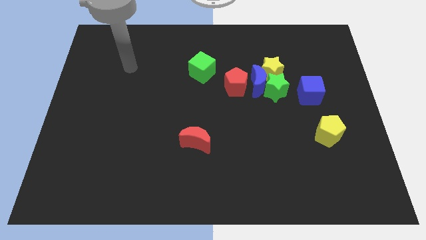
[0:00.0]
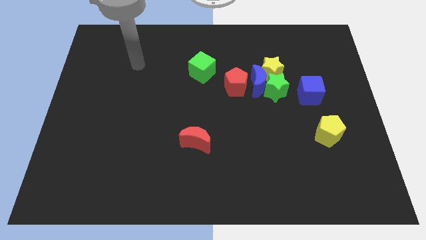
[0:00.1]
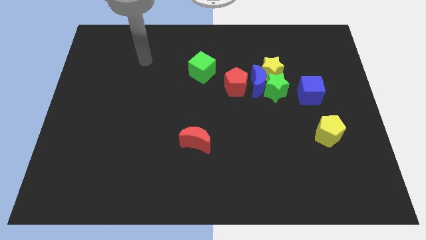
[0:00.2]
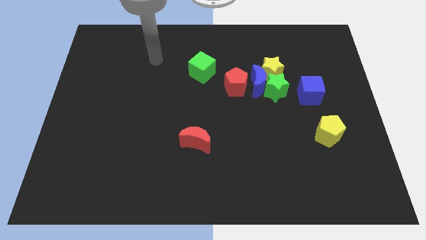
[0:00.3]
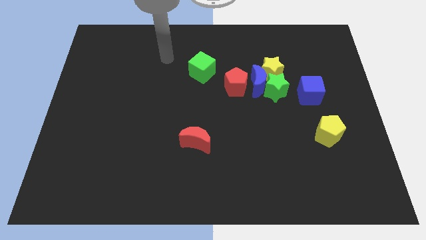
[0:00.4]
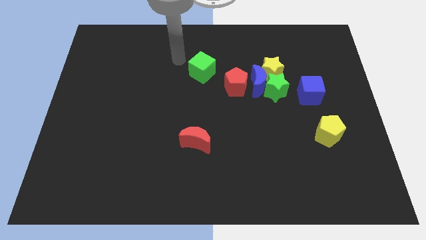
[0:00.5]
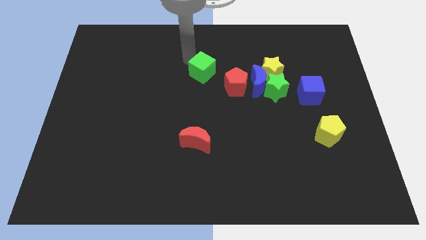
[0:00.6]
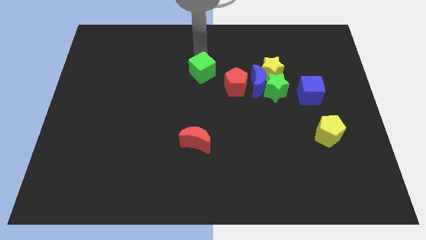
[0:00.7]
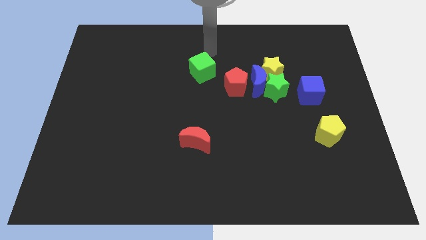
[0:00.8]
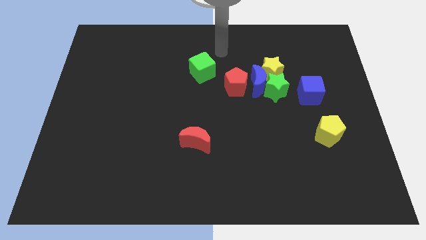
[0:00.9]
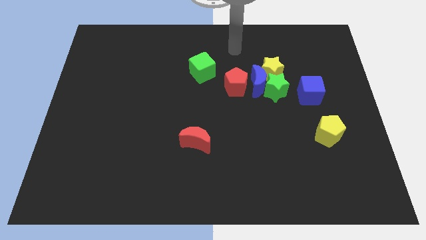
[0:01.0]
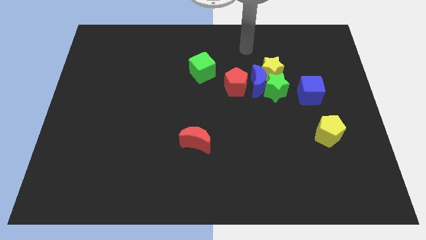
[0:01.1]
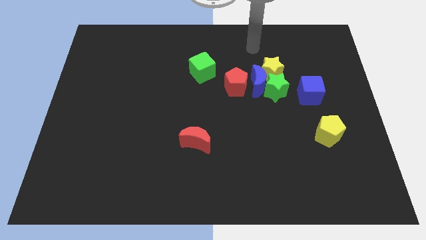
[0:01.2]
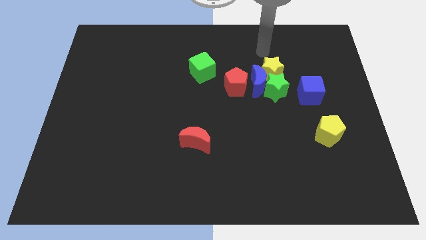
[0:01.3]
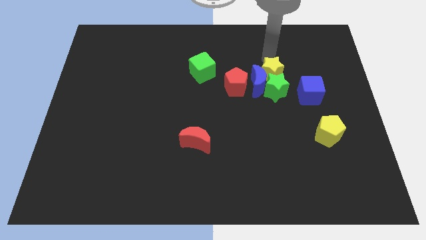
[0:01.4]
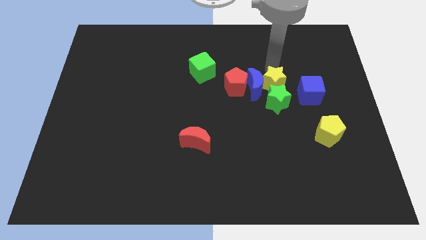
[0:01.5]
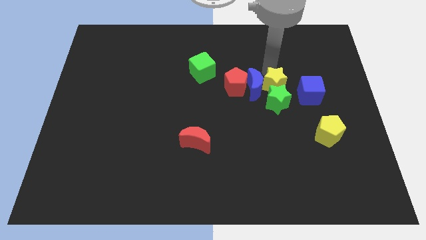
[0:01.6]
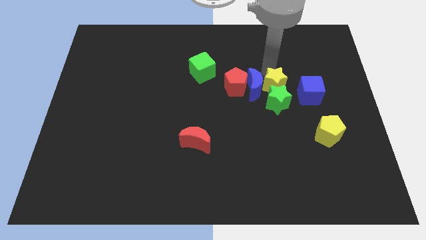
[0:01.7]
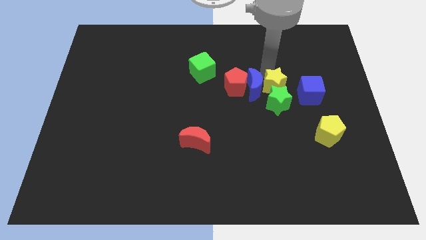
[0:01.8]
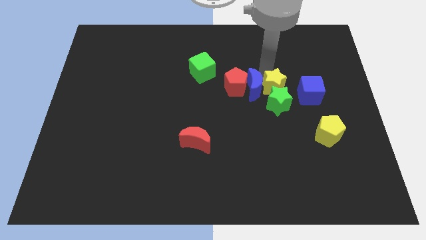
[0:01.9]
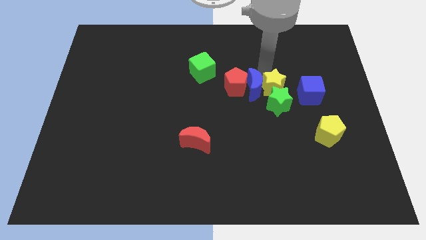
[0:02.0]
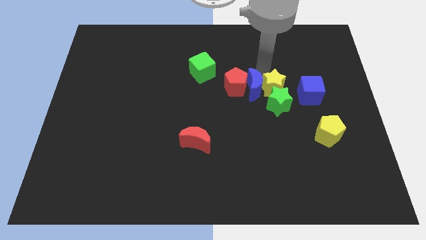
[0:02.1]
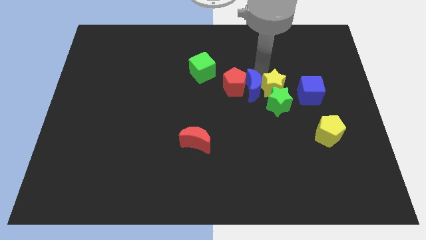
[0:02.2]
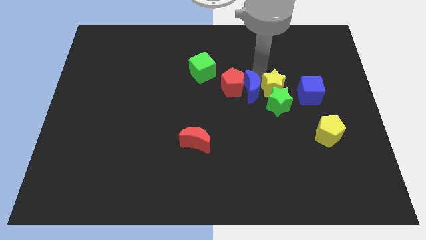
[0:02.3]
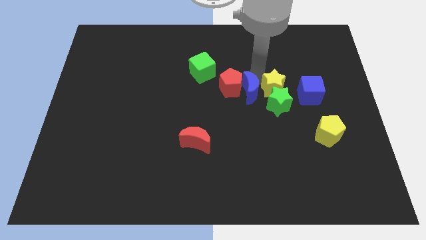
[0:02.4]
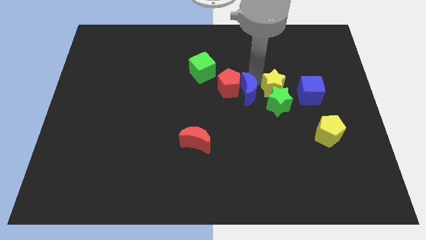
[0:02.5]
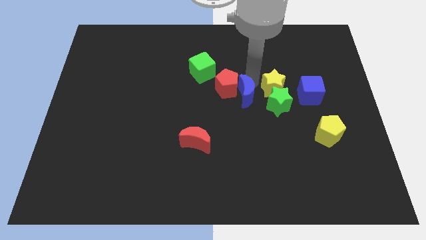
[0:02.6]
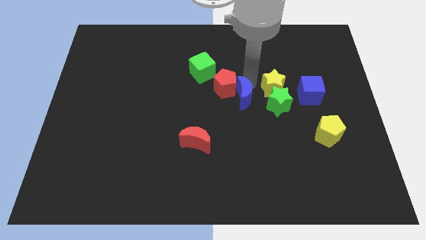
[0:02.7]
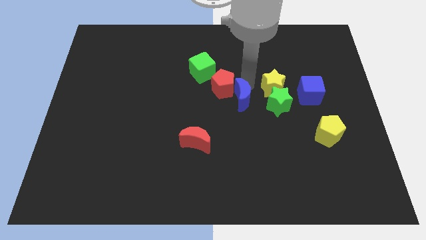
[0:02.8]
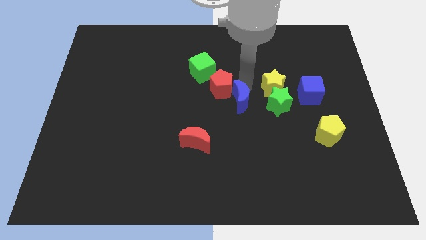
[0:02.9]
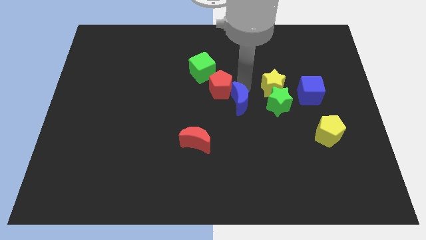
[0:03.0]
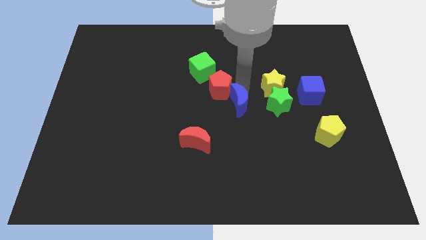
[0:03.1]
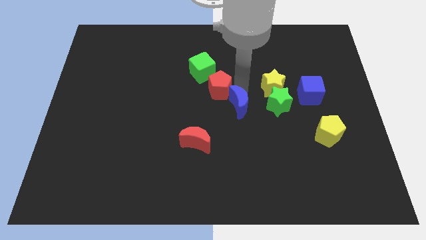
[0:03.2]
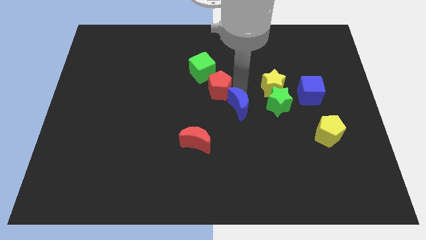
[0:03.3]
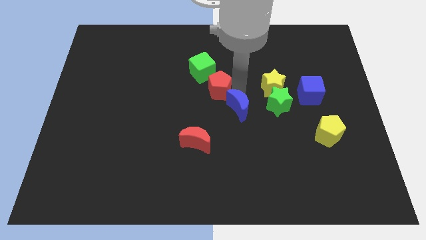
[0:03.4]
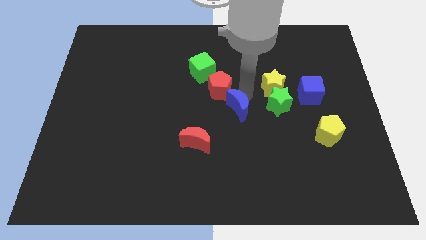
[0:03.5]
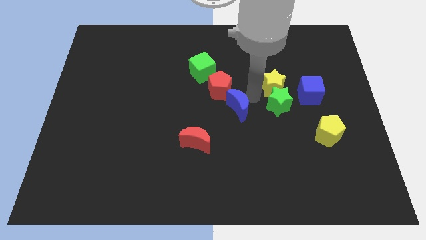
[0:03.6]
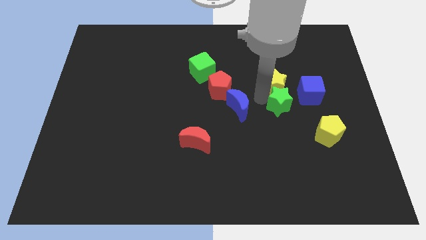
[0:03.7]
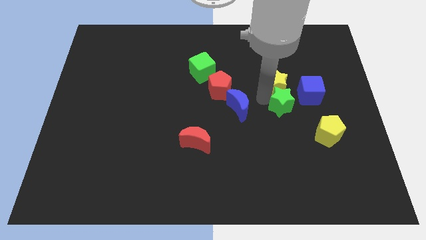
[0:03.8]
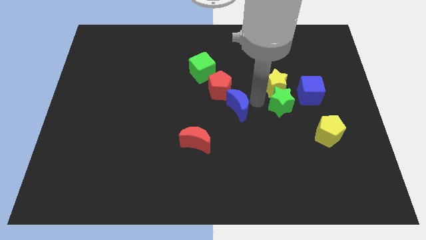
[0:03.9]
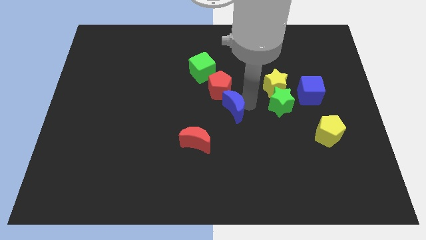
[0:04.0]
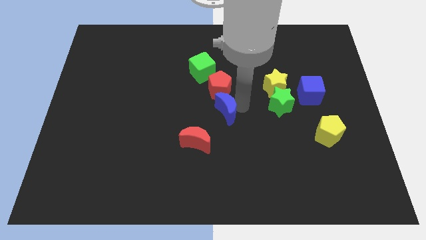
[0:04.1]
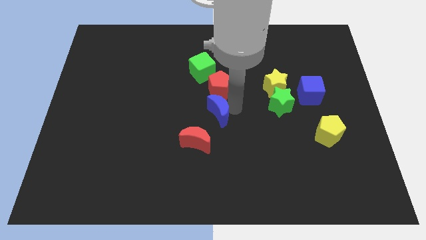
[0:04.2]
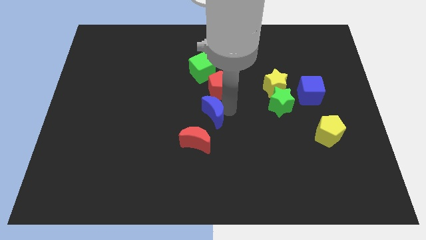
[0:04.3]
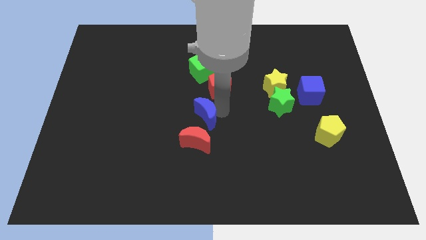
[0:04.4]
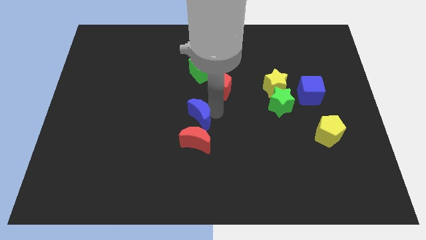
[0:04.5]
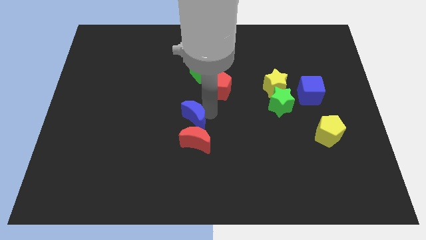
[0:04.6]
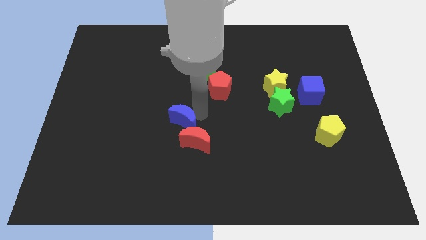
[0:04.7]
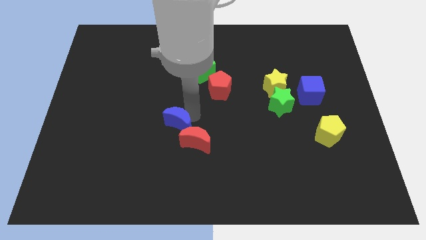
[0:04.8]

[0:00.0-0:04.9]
move the blue moon down and to the left

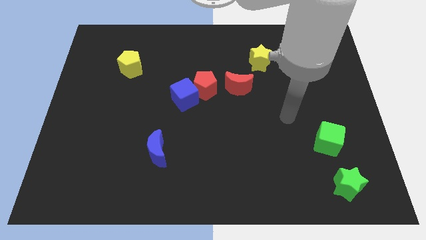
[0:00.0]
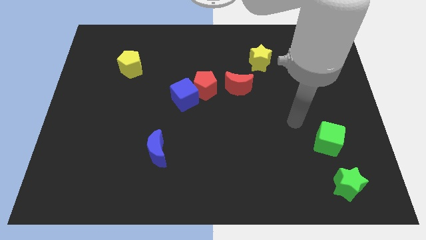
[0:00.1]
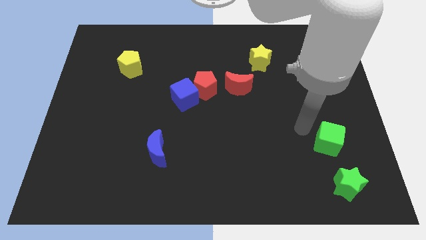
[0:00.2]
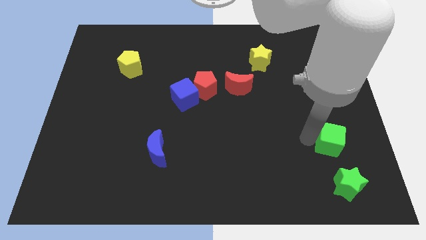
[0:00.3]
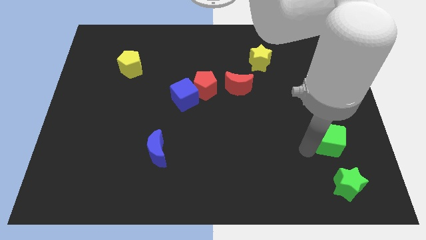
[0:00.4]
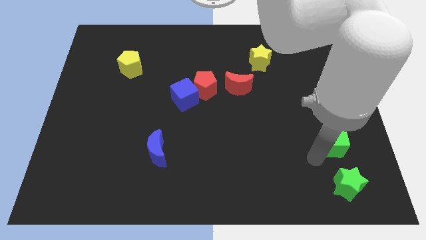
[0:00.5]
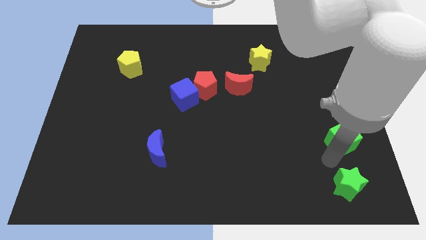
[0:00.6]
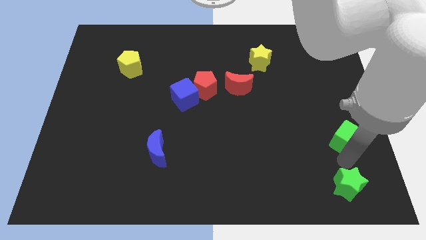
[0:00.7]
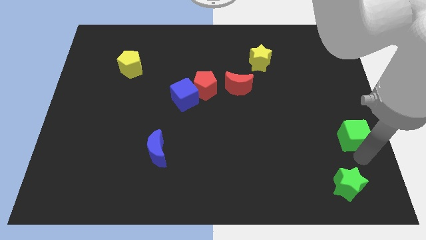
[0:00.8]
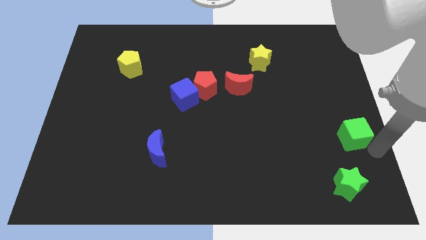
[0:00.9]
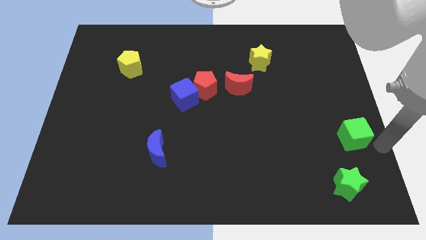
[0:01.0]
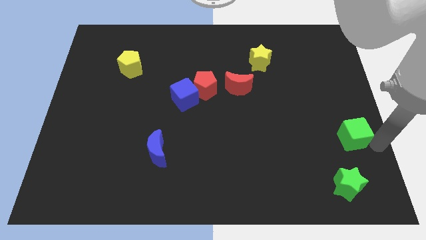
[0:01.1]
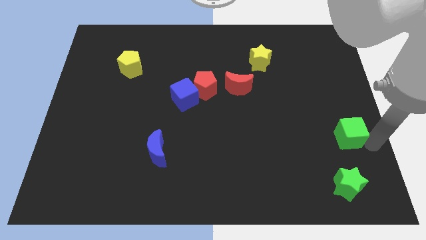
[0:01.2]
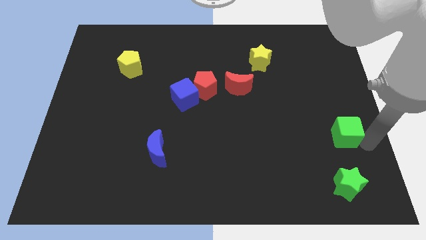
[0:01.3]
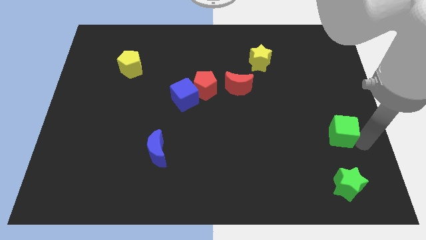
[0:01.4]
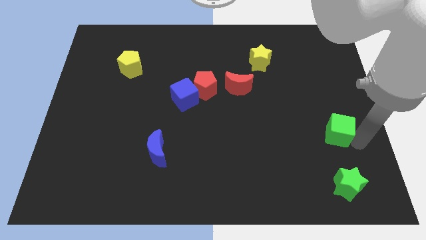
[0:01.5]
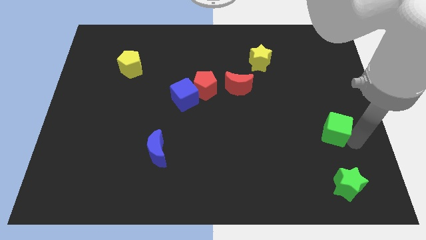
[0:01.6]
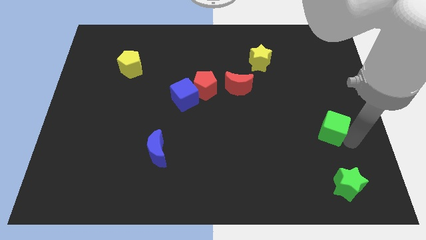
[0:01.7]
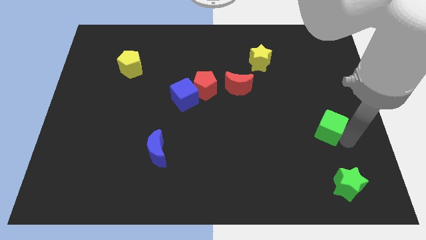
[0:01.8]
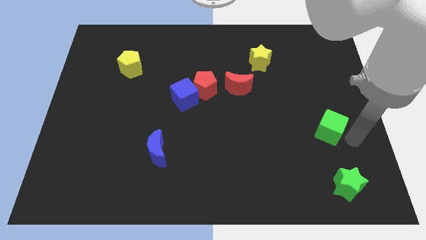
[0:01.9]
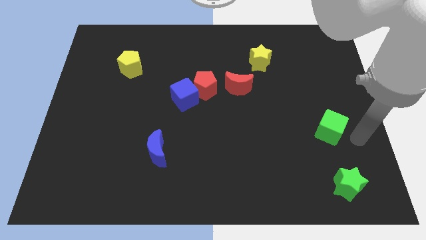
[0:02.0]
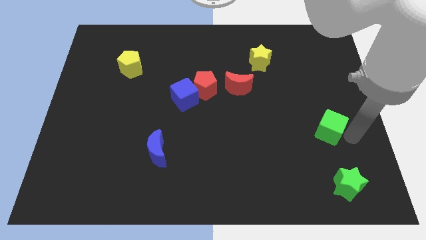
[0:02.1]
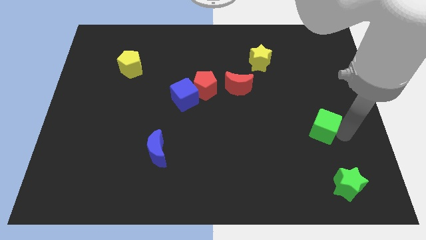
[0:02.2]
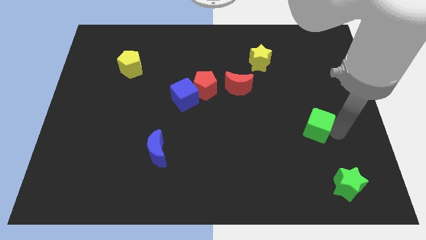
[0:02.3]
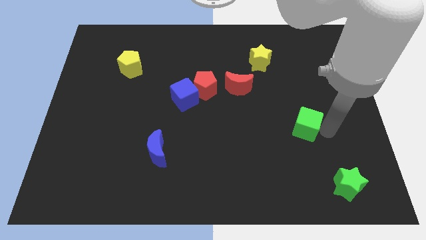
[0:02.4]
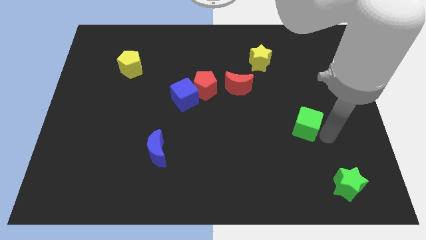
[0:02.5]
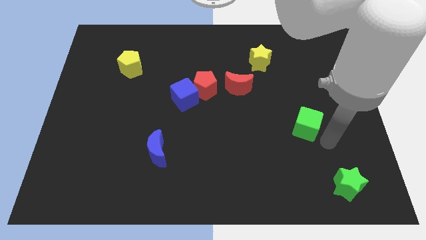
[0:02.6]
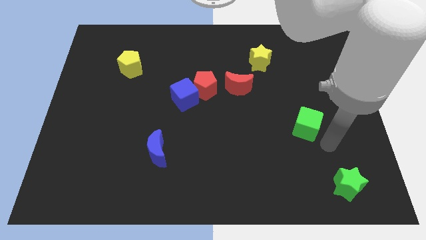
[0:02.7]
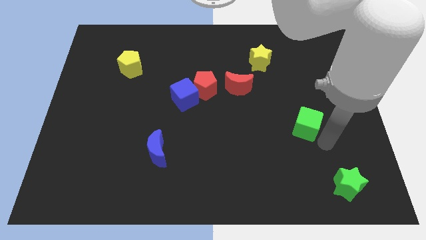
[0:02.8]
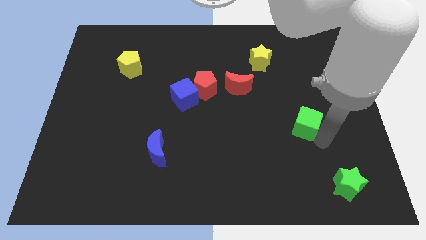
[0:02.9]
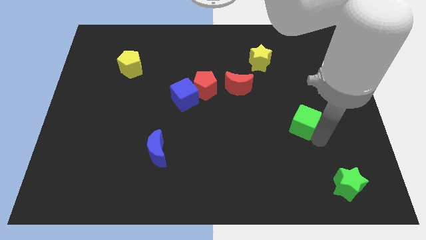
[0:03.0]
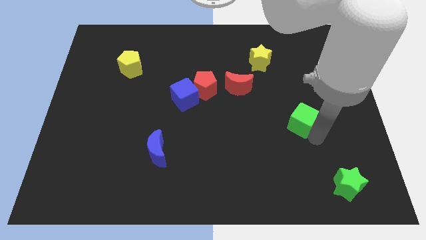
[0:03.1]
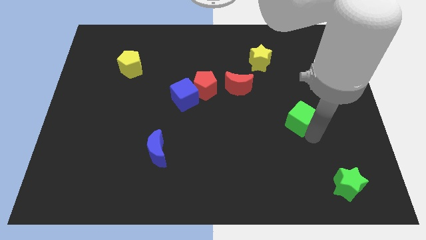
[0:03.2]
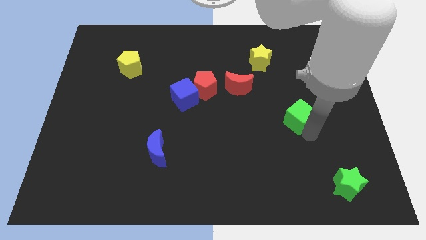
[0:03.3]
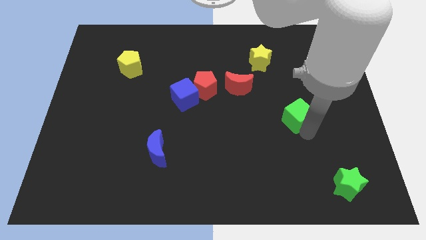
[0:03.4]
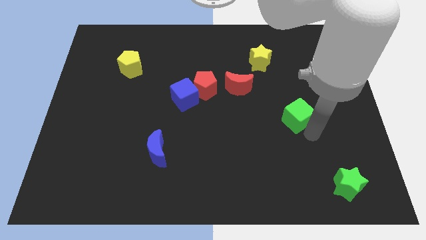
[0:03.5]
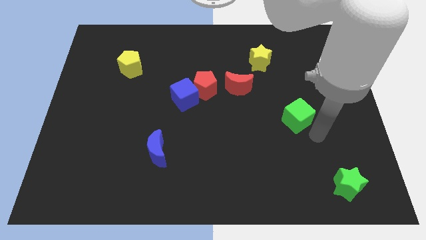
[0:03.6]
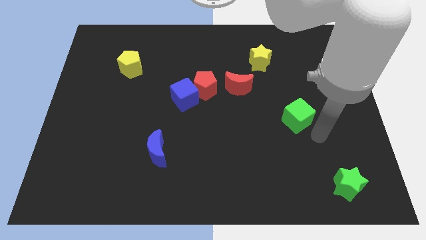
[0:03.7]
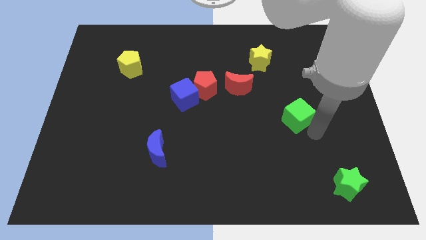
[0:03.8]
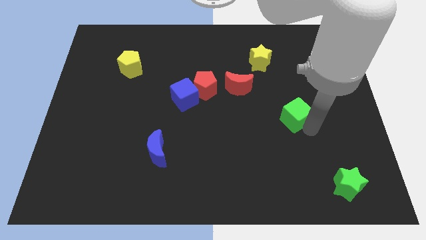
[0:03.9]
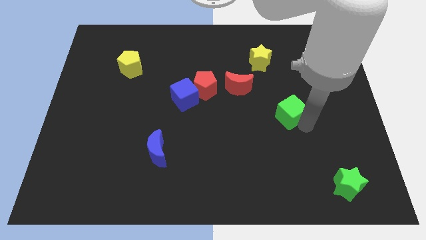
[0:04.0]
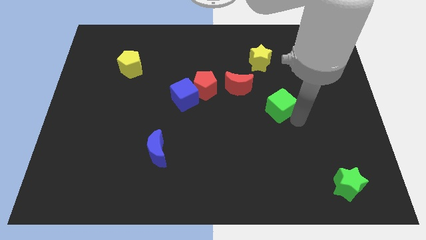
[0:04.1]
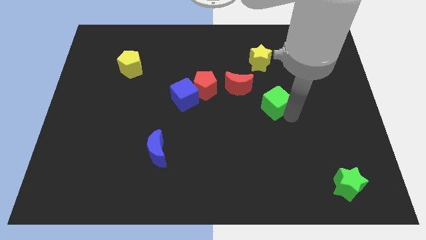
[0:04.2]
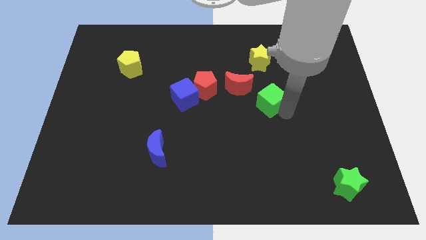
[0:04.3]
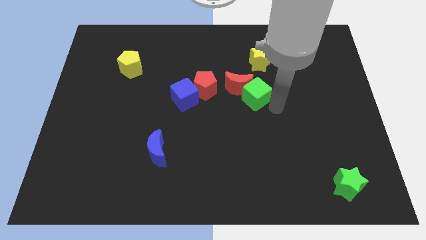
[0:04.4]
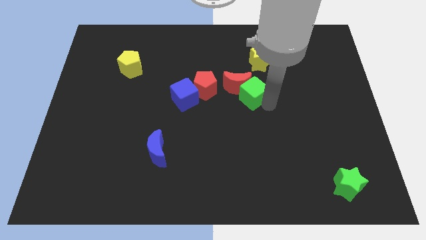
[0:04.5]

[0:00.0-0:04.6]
slide the green cube up and to the left
